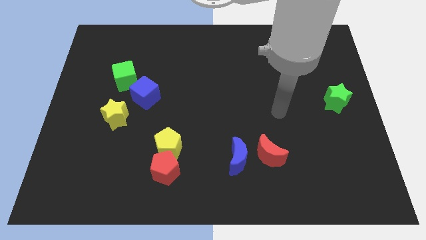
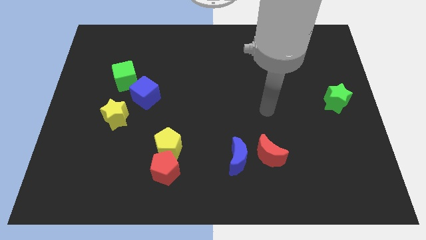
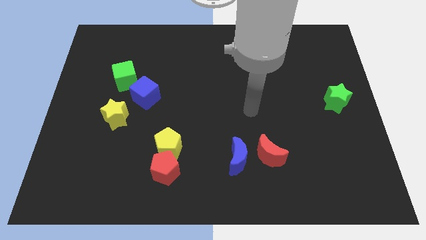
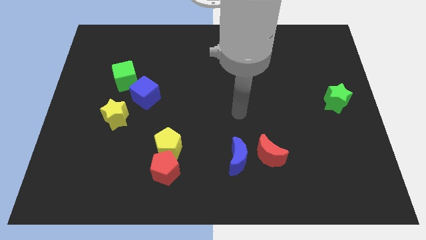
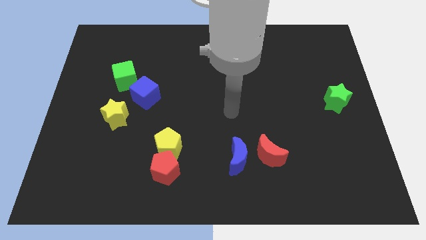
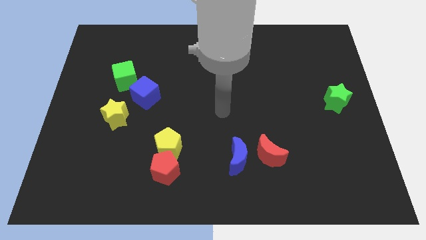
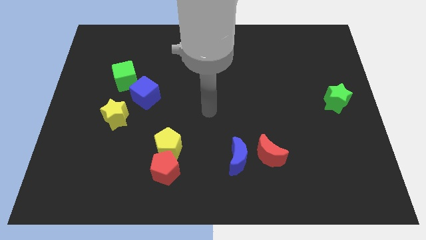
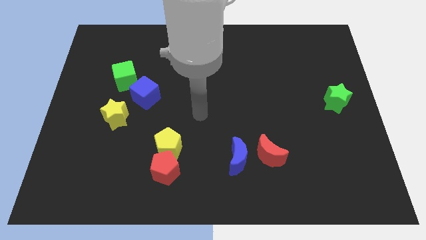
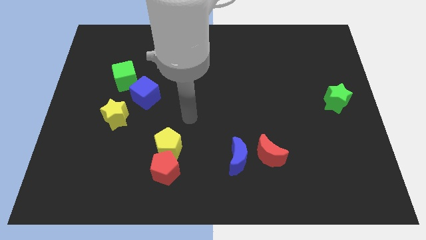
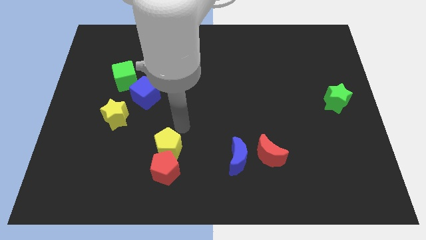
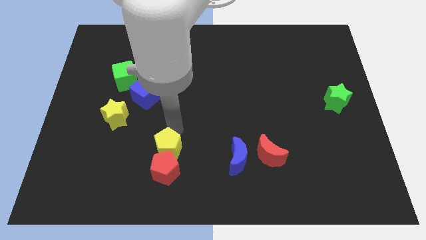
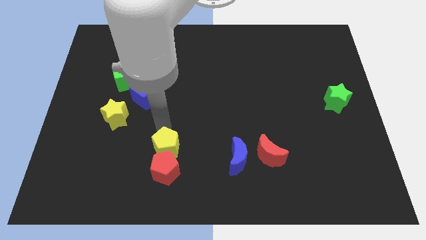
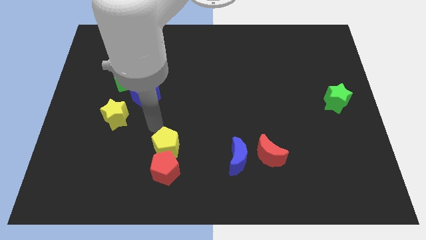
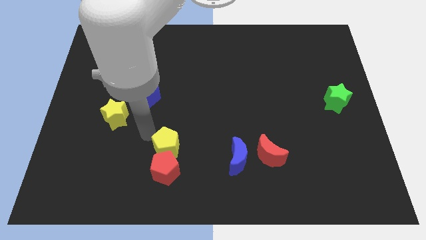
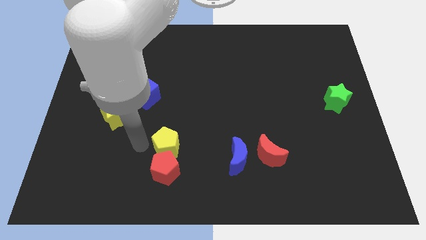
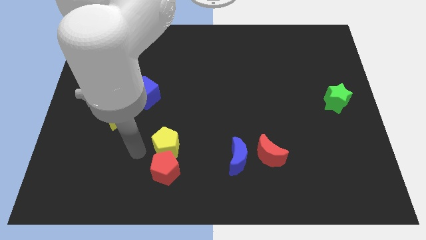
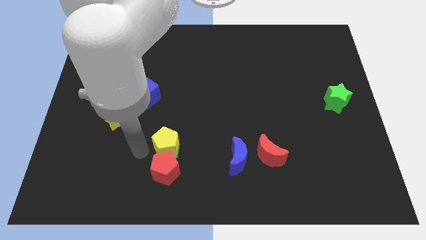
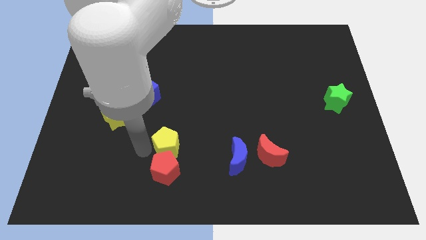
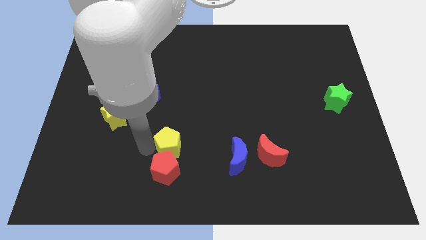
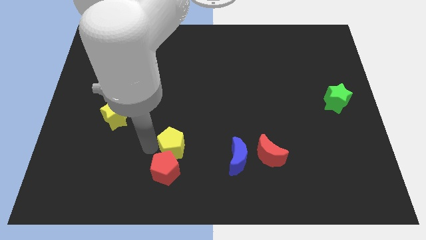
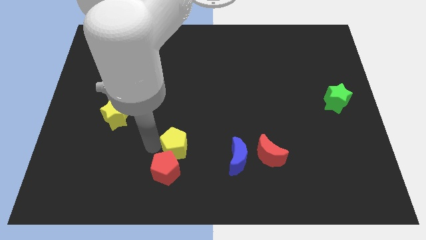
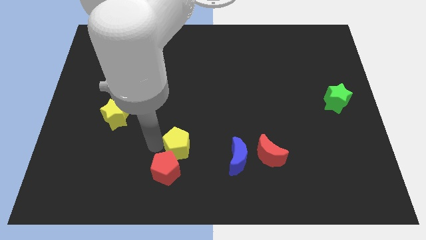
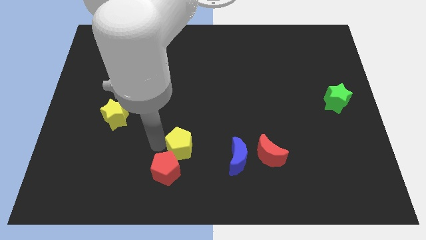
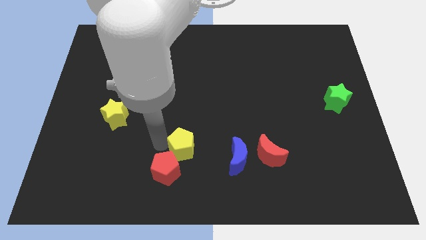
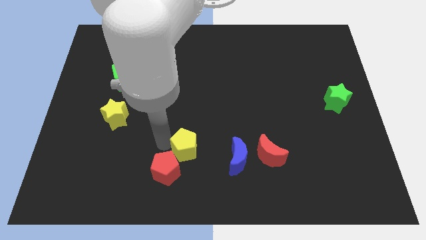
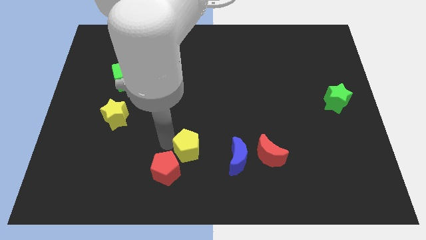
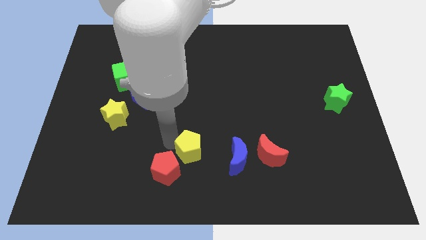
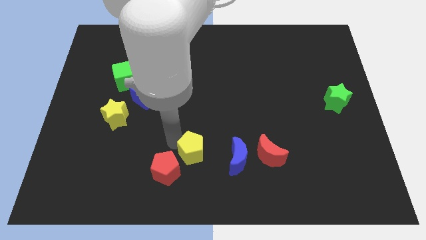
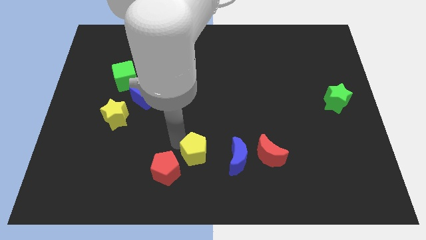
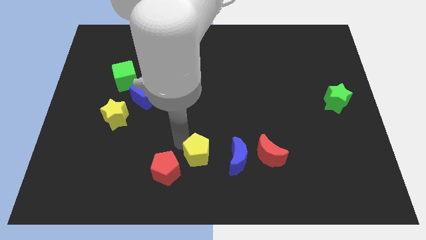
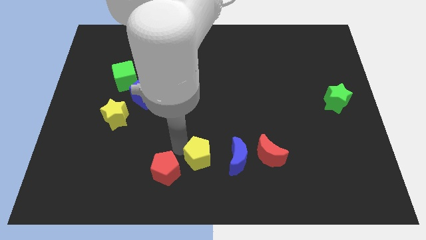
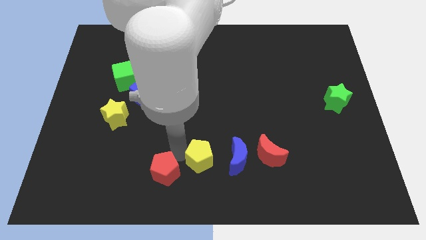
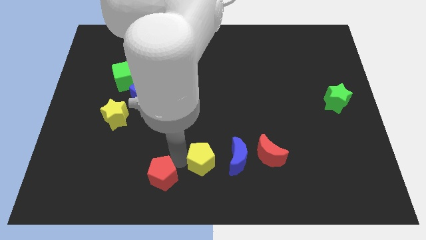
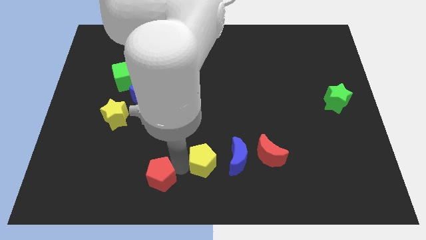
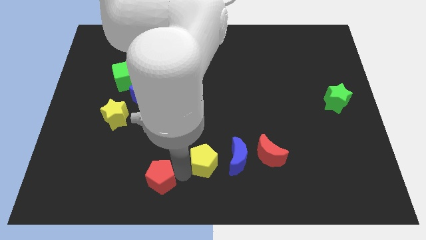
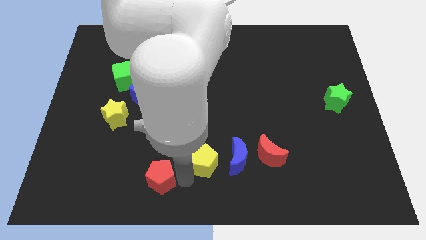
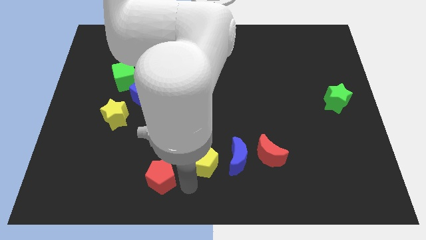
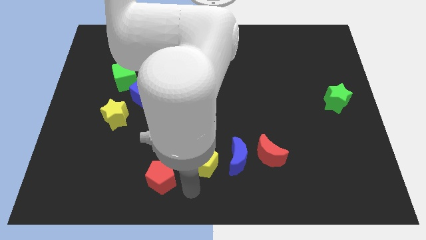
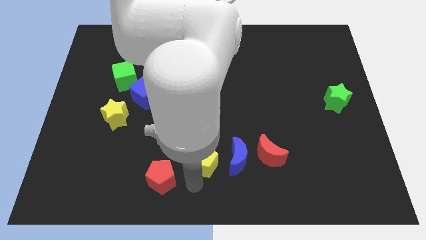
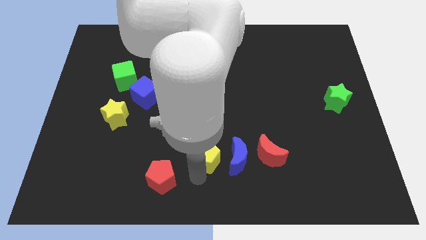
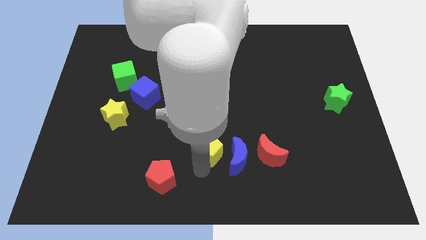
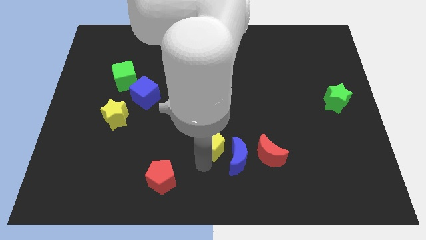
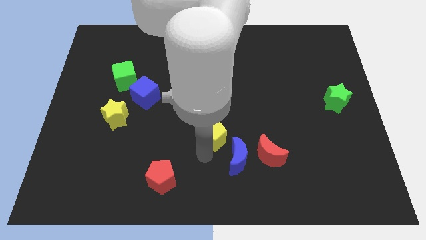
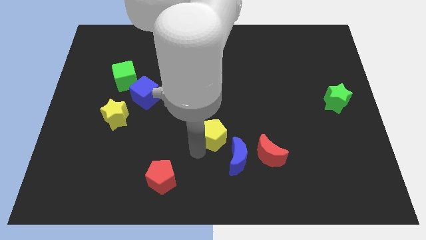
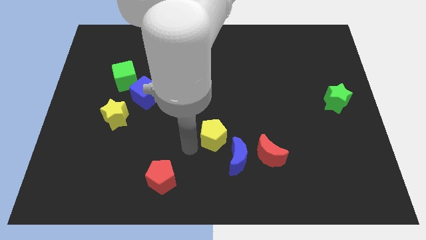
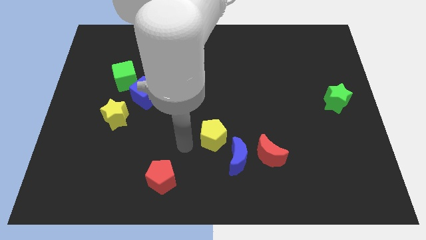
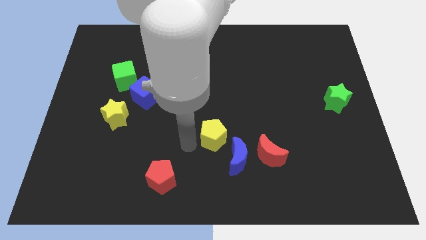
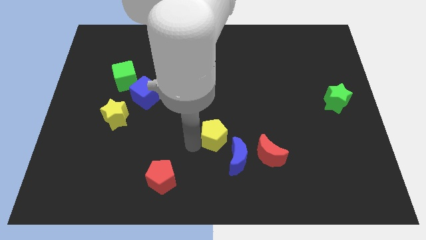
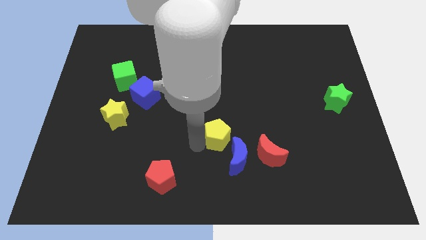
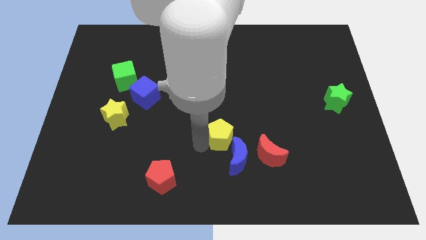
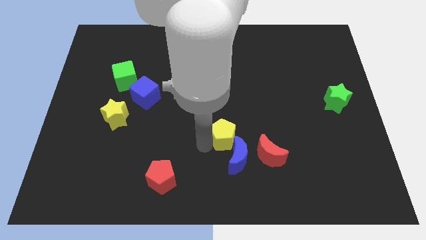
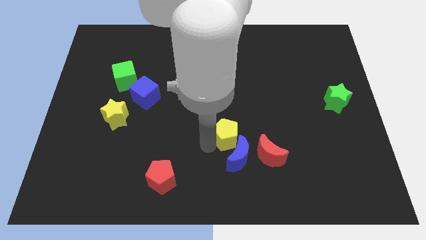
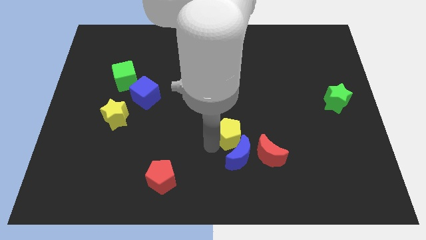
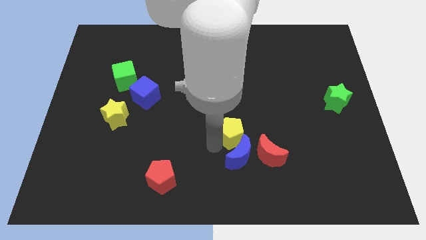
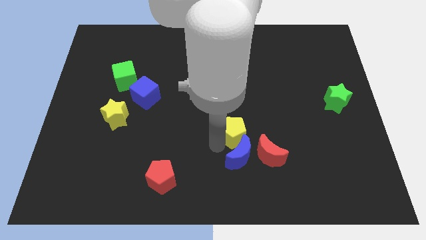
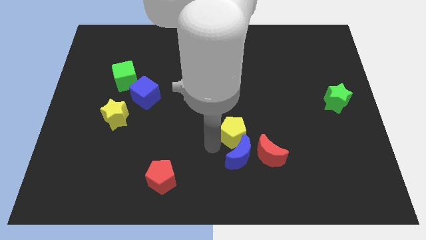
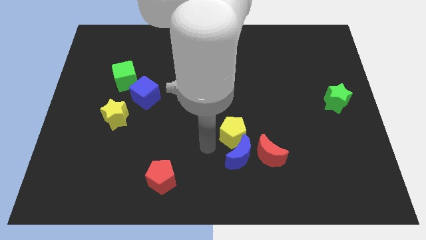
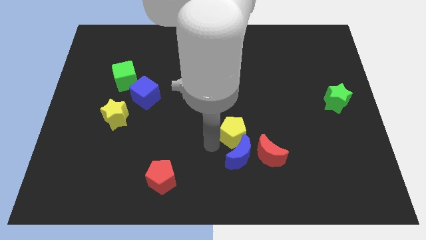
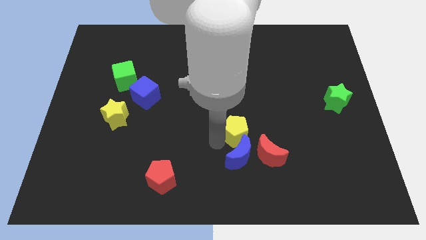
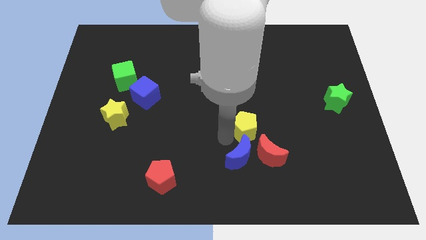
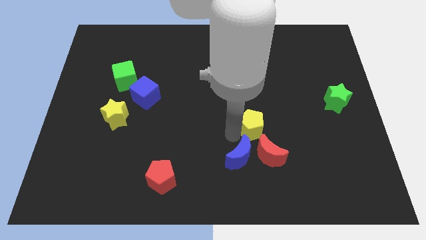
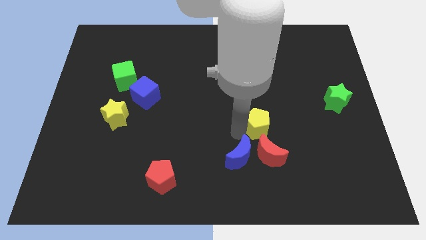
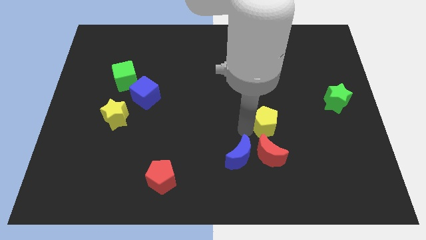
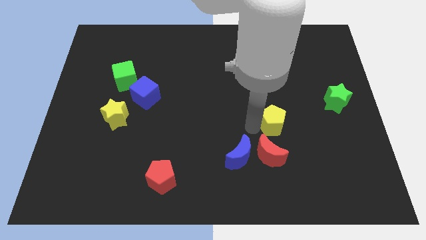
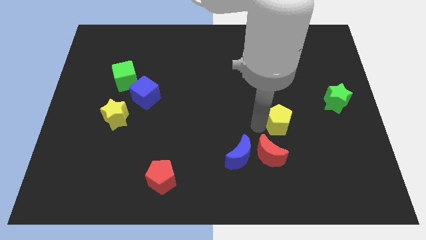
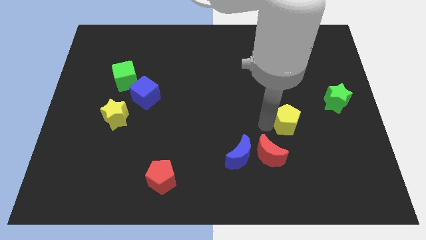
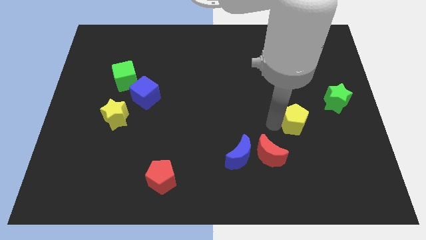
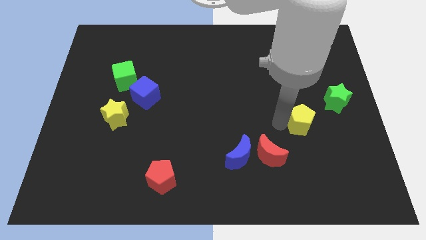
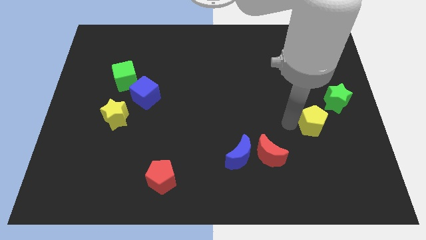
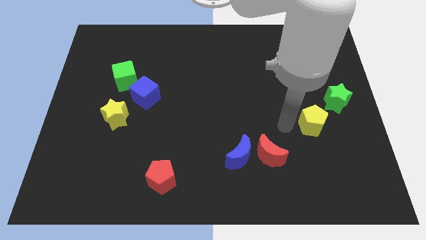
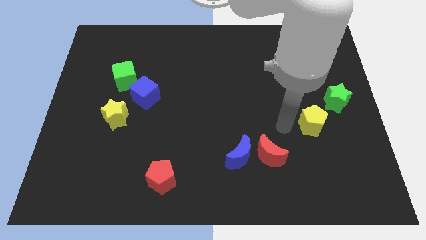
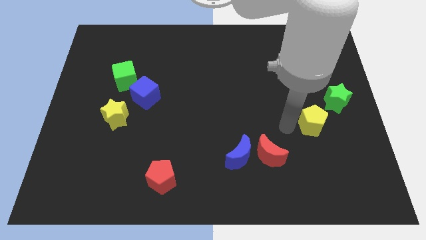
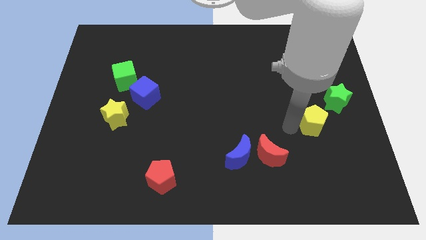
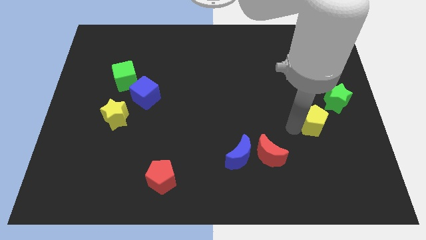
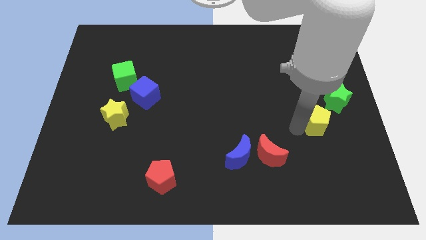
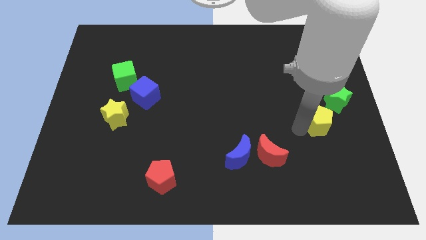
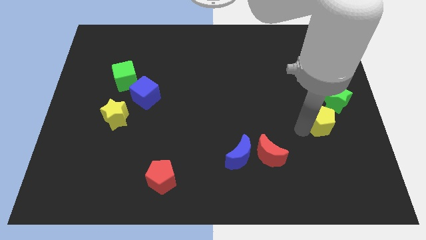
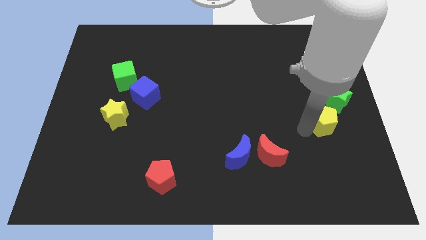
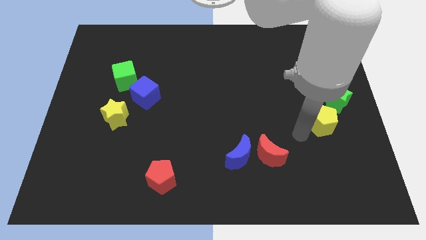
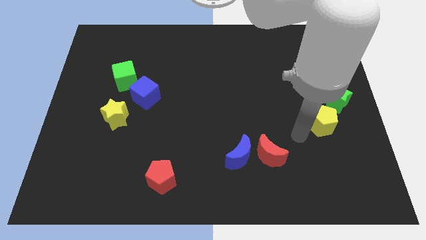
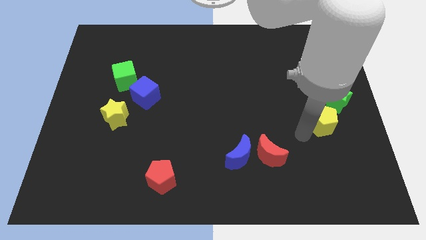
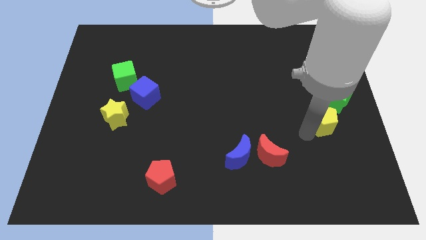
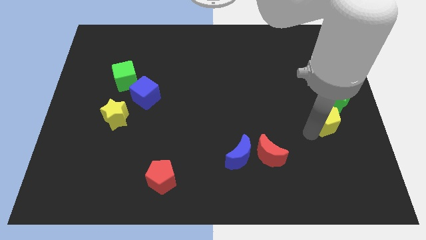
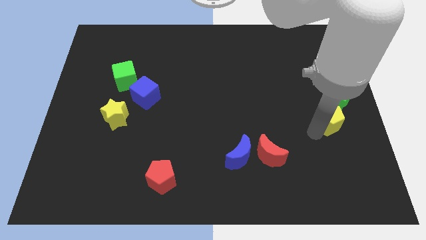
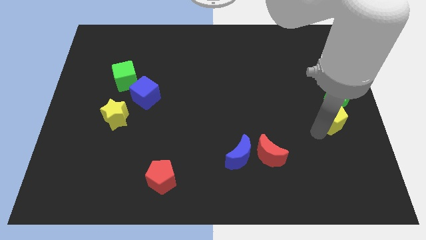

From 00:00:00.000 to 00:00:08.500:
slide the yellow pentagon to the right side
